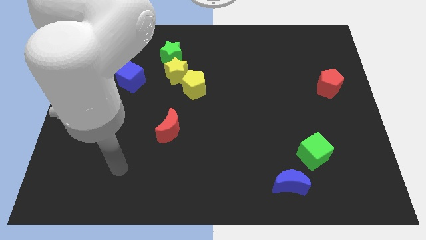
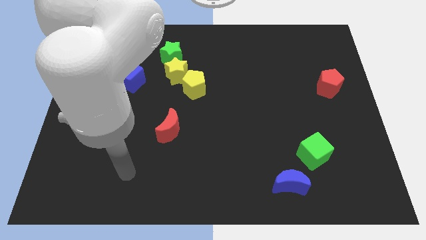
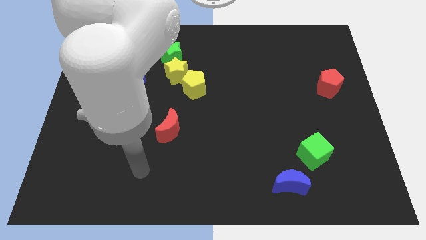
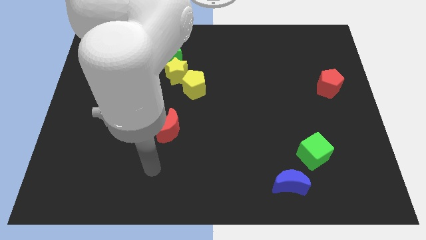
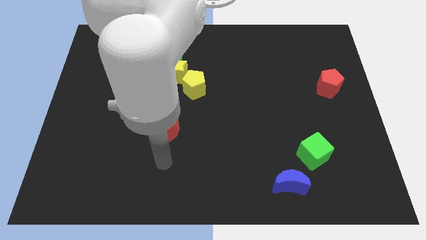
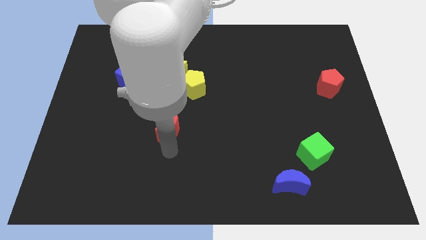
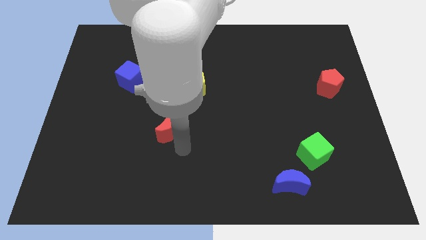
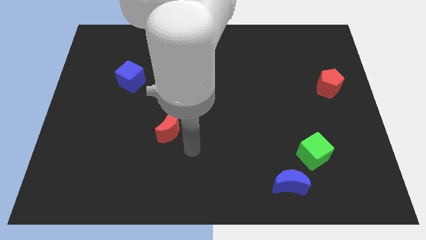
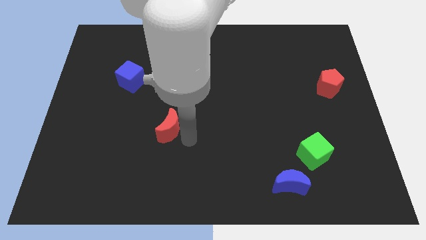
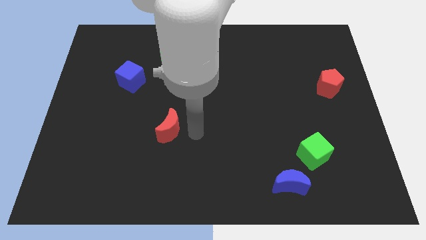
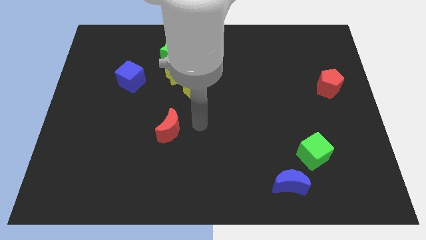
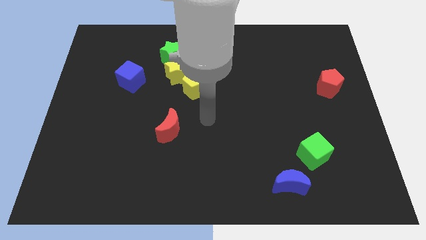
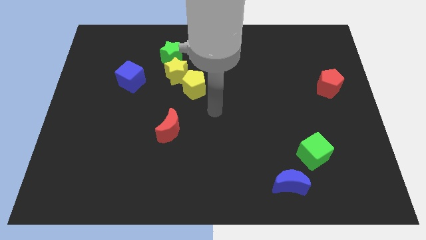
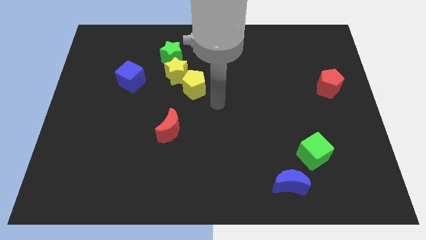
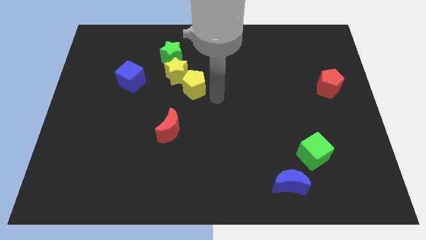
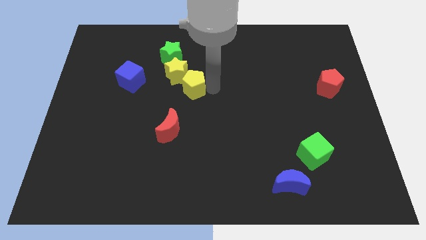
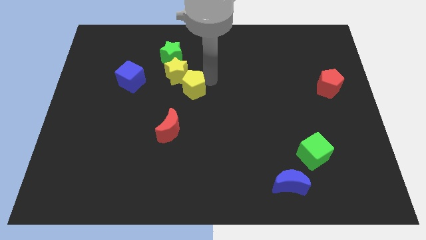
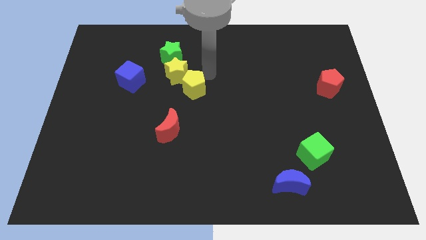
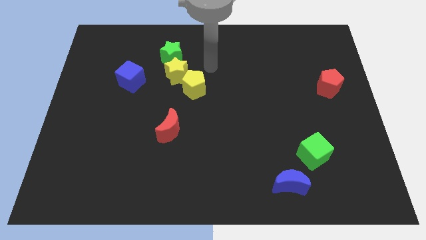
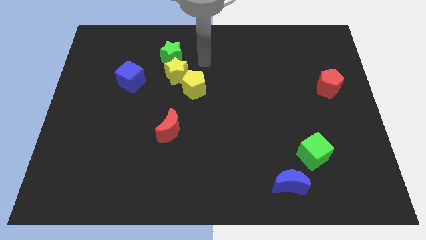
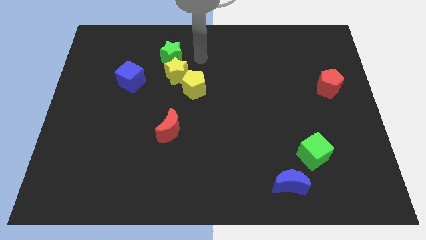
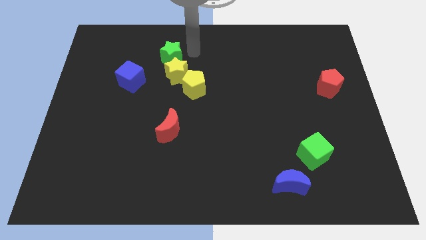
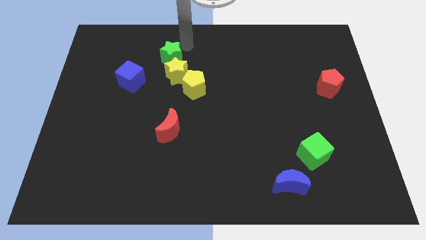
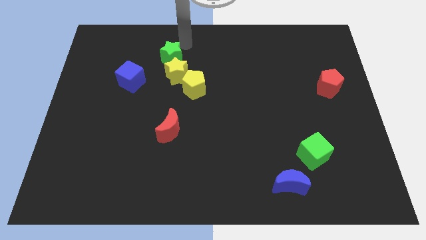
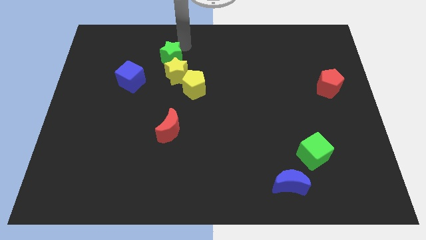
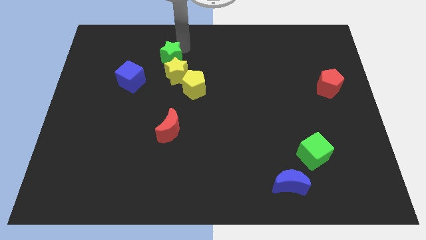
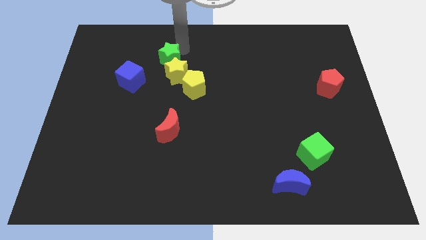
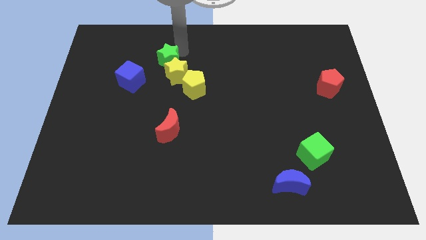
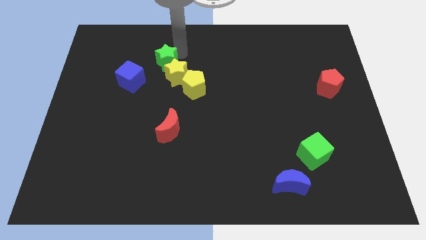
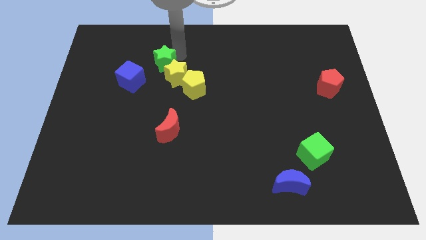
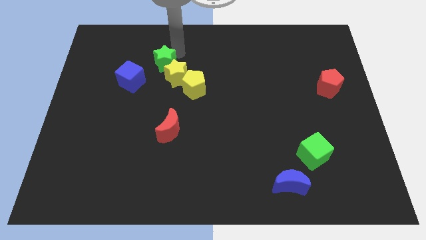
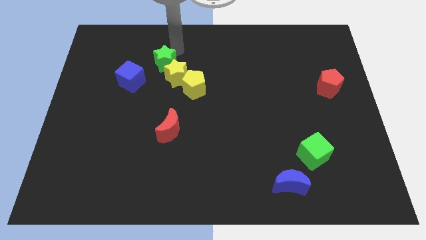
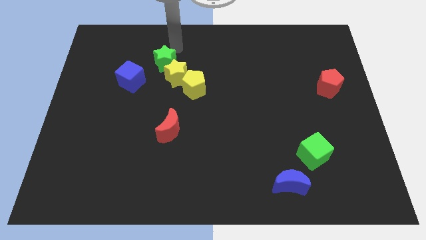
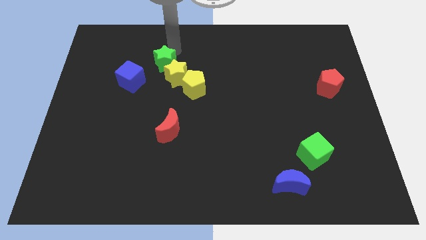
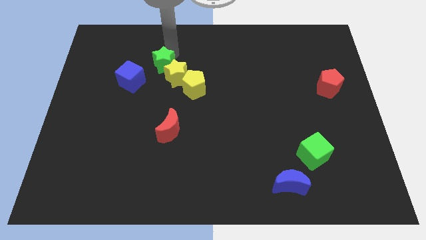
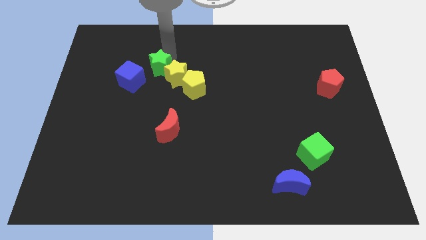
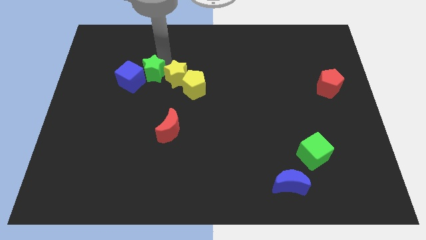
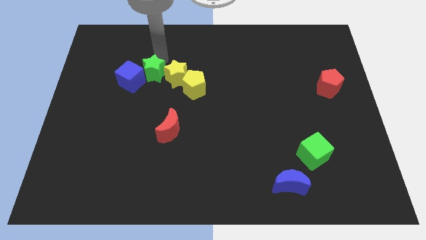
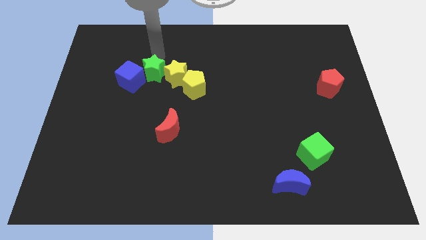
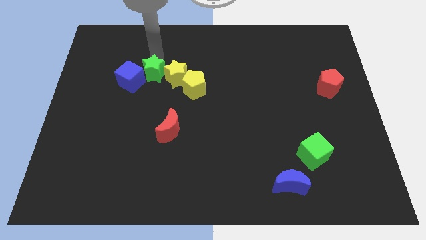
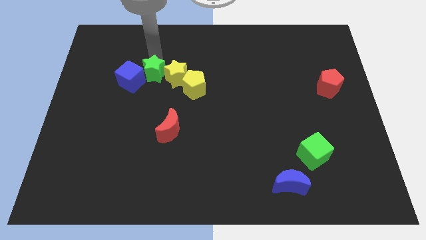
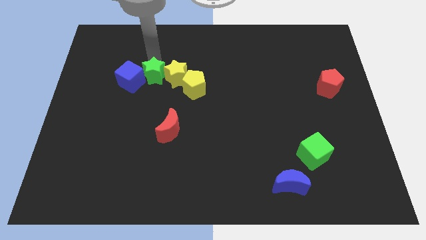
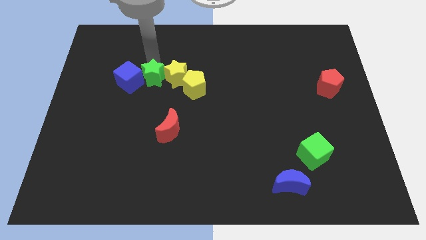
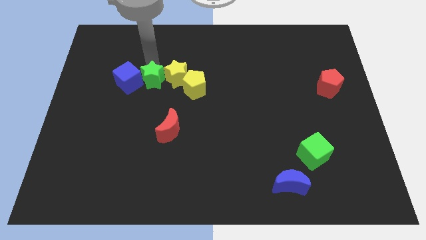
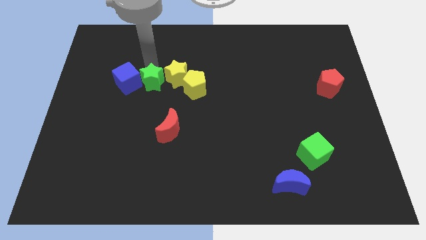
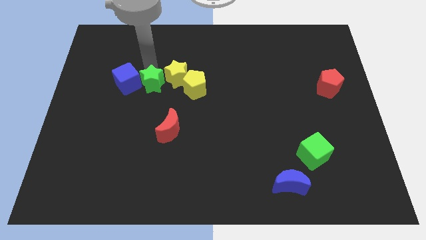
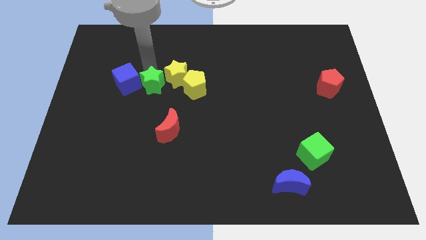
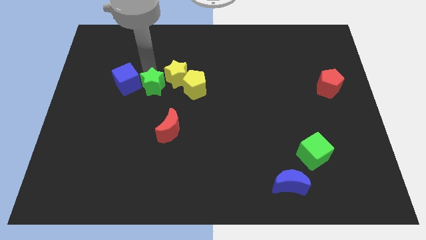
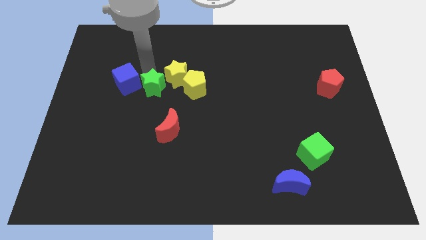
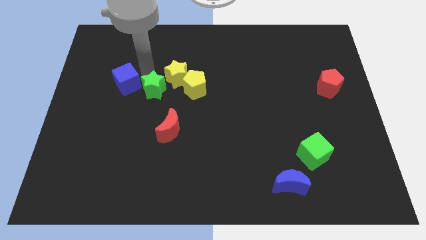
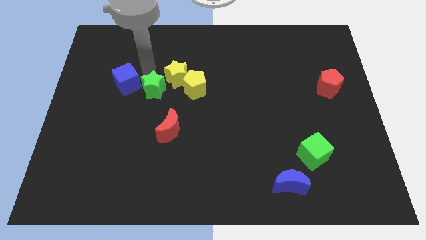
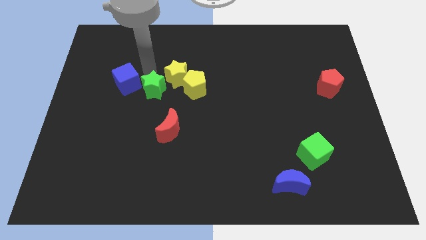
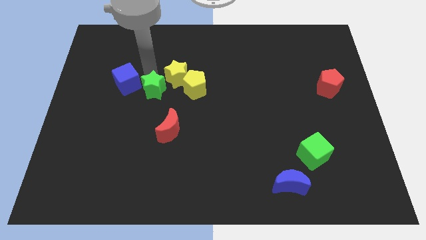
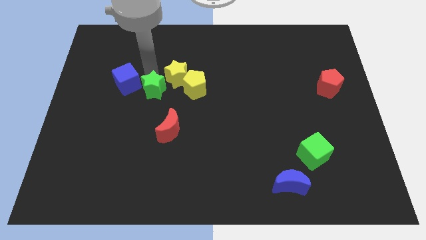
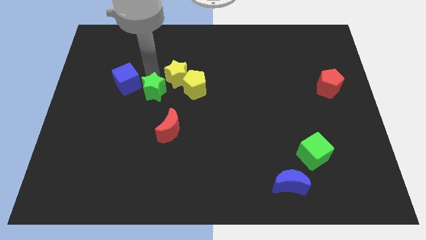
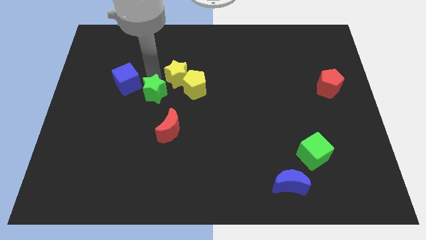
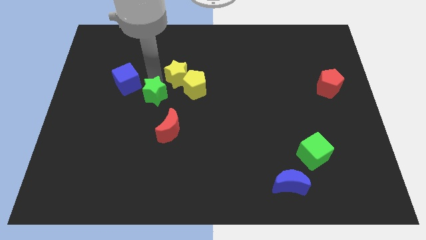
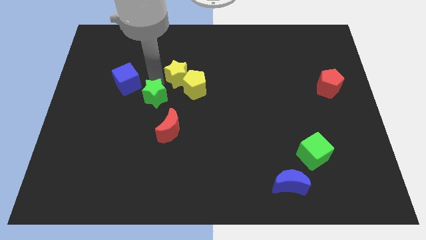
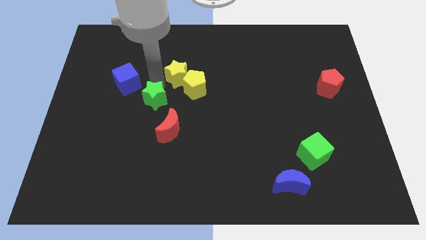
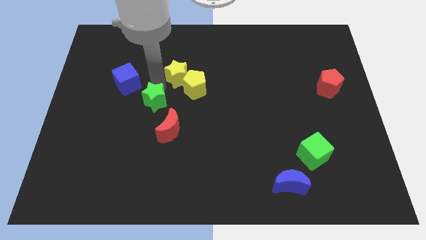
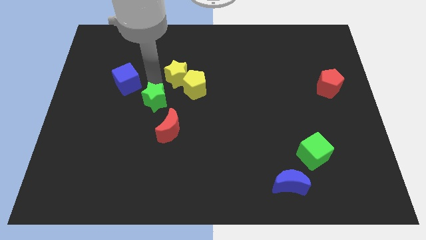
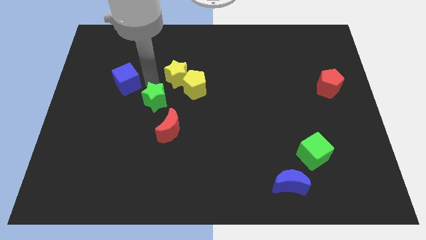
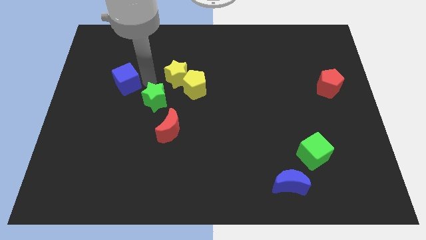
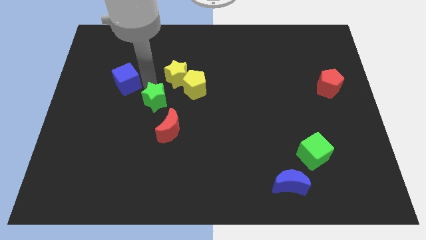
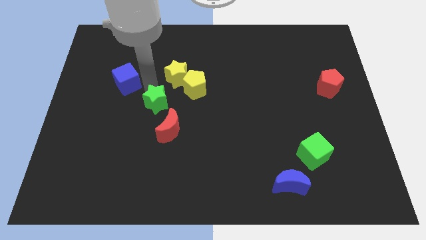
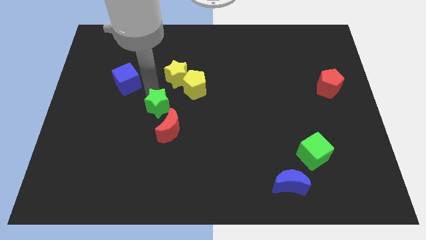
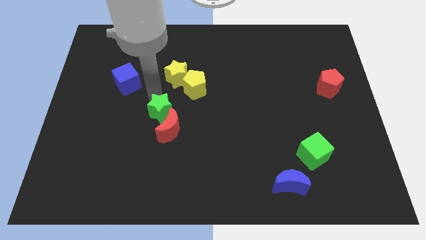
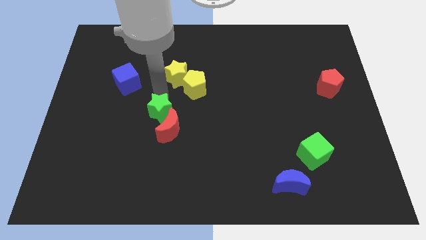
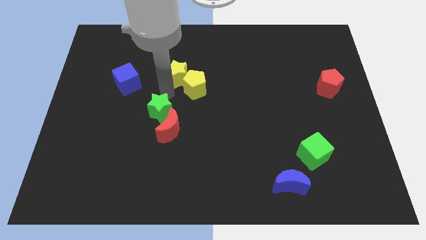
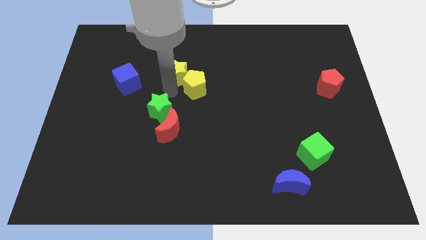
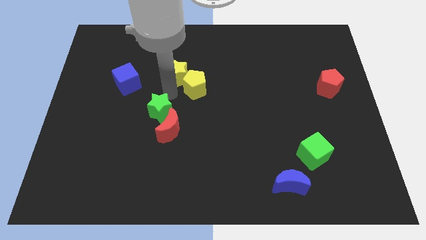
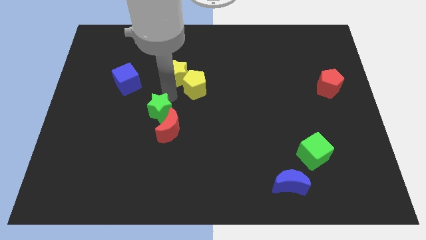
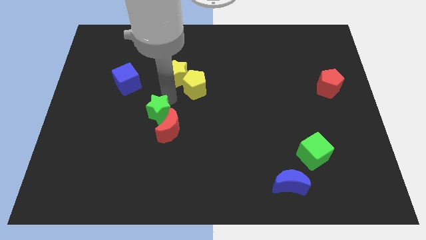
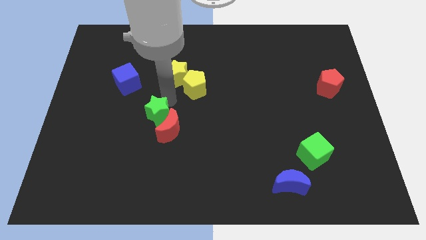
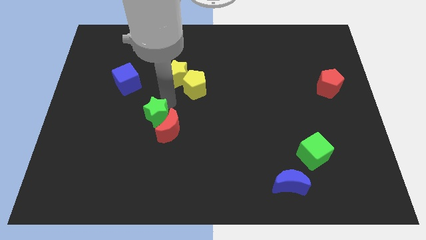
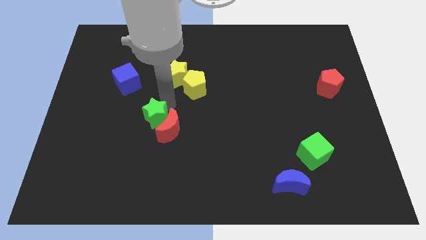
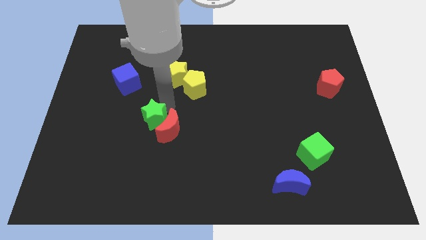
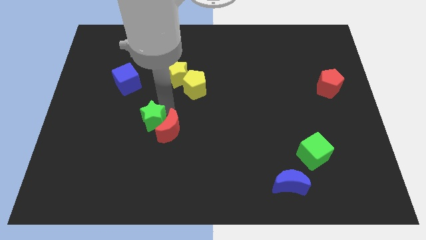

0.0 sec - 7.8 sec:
push the green star down

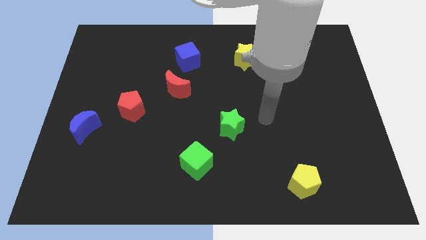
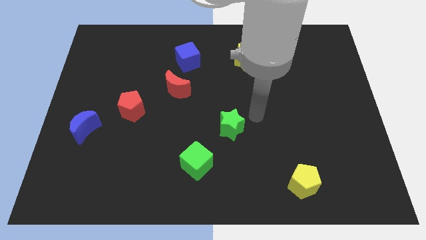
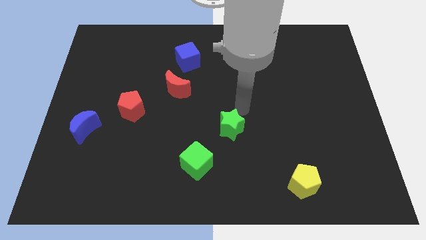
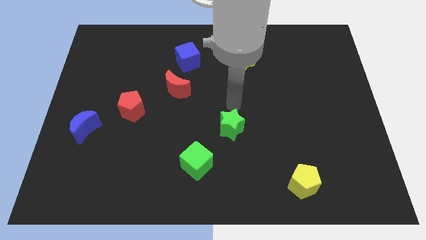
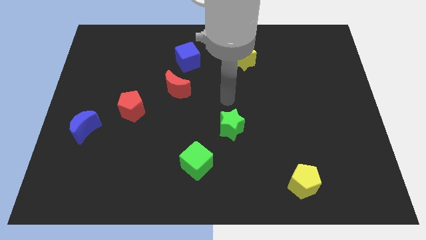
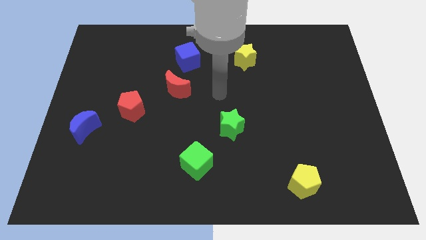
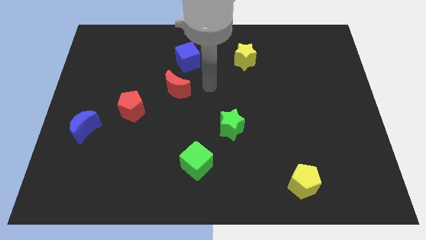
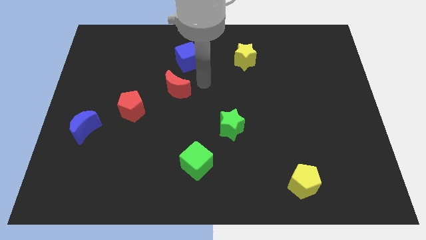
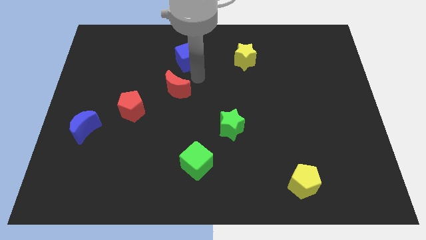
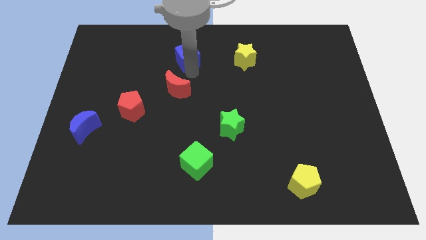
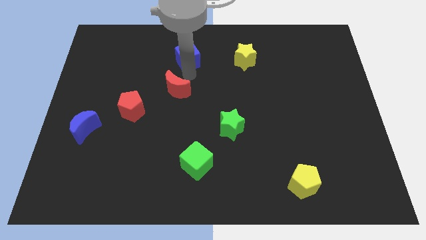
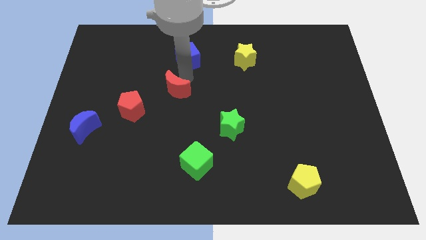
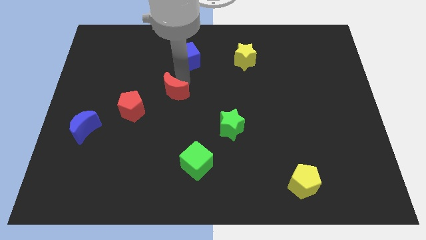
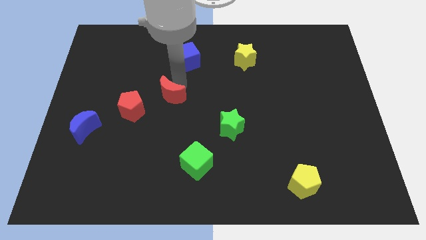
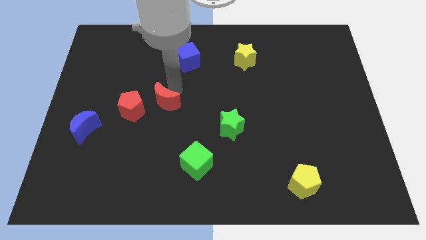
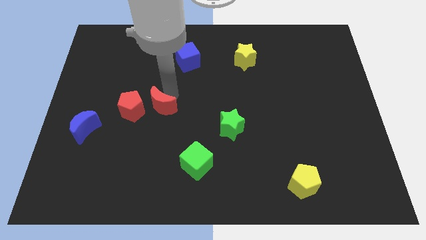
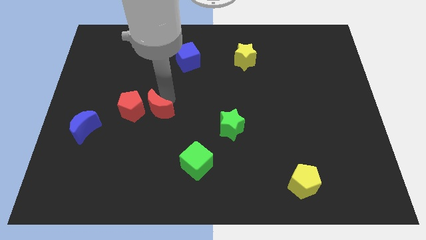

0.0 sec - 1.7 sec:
slightly move the red moon diagonally downwards and left
